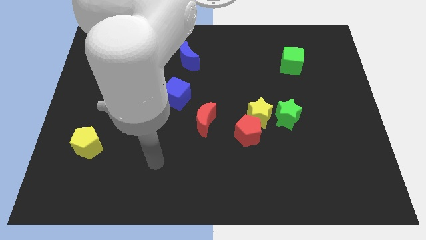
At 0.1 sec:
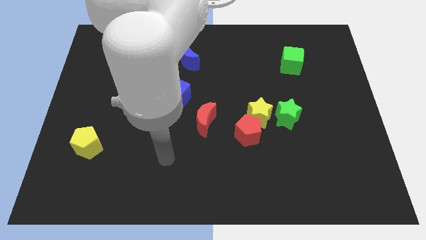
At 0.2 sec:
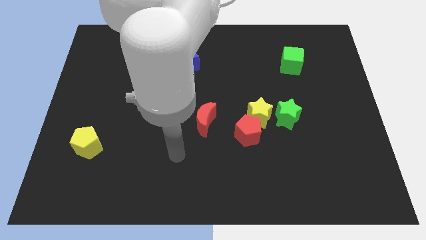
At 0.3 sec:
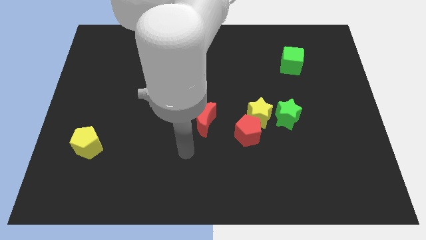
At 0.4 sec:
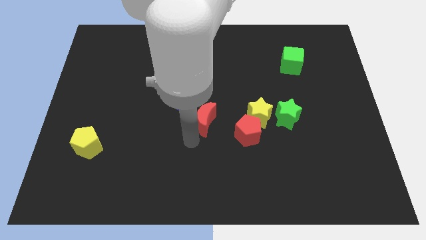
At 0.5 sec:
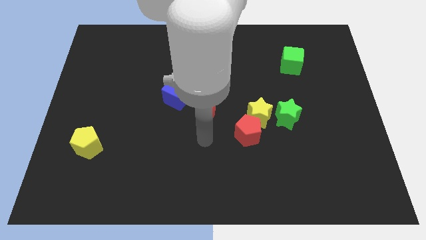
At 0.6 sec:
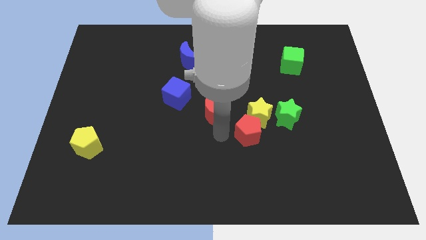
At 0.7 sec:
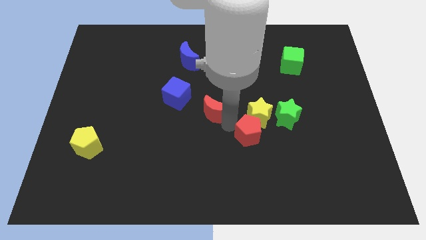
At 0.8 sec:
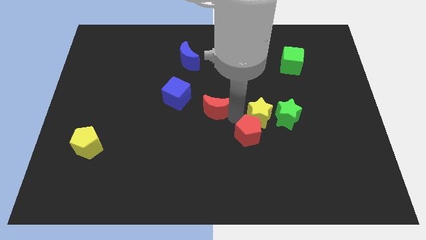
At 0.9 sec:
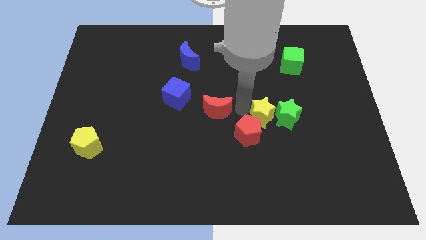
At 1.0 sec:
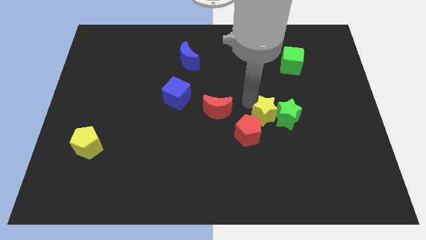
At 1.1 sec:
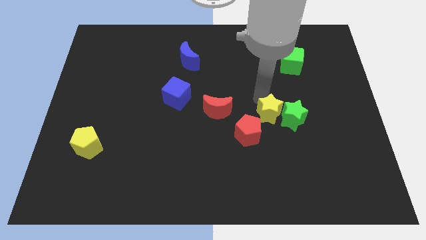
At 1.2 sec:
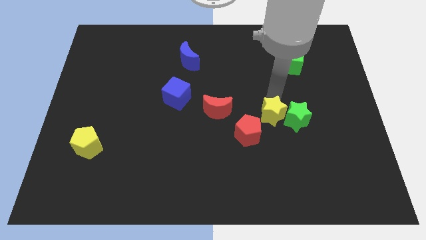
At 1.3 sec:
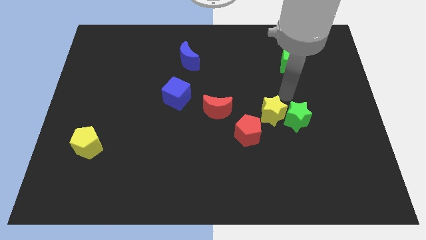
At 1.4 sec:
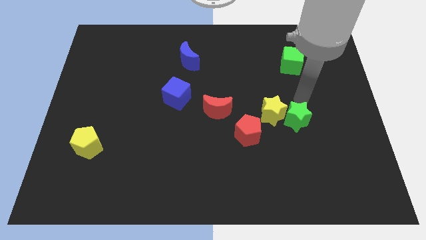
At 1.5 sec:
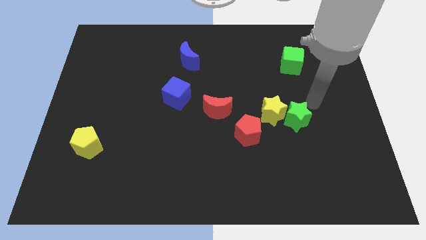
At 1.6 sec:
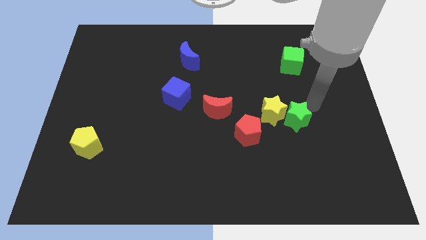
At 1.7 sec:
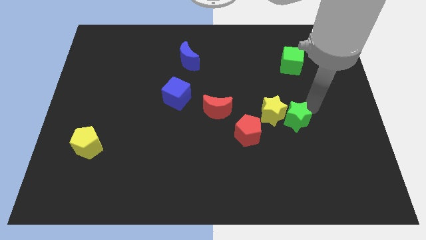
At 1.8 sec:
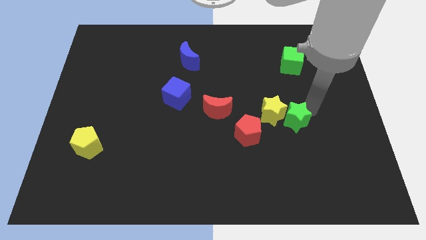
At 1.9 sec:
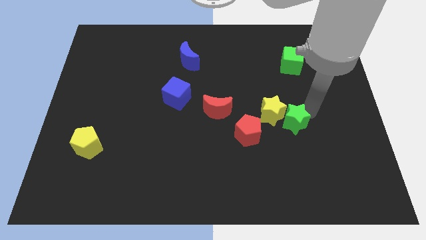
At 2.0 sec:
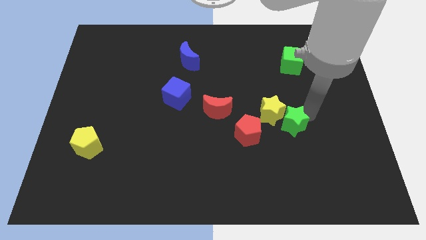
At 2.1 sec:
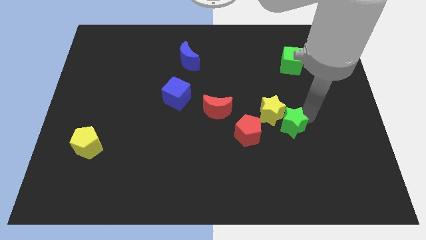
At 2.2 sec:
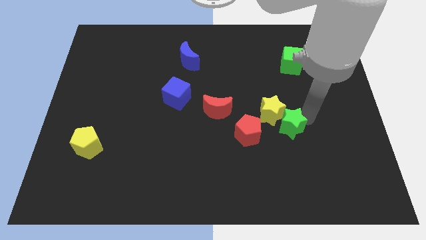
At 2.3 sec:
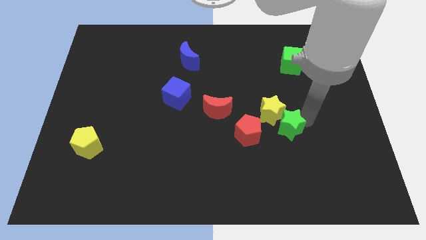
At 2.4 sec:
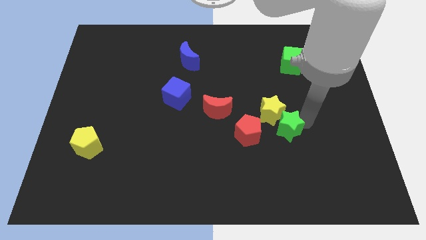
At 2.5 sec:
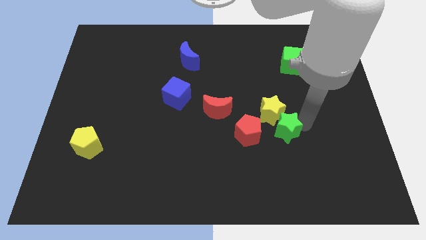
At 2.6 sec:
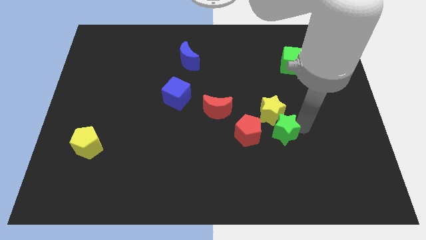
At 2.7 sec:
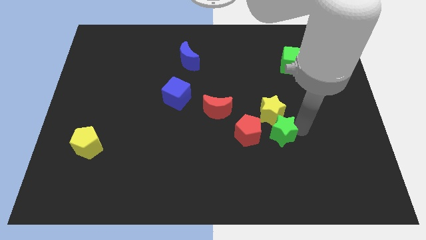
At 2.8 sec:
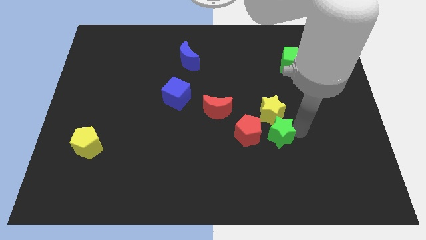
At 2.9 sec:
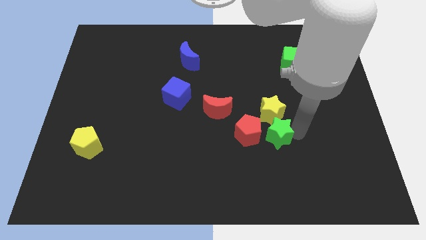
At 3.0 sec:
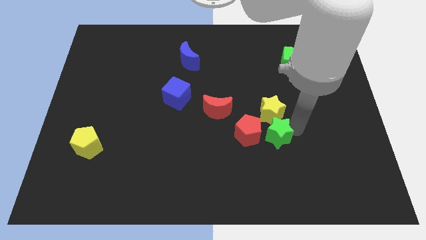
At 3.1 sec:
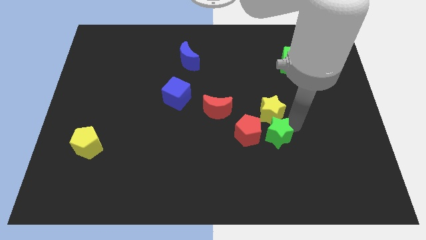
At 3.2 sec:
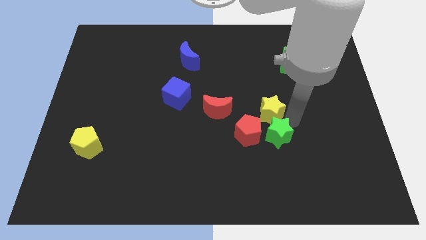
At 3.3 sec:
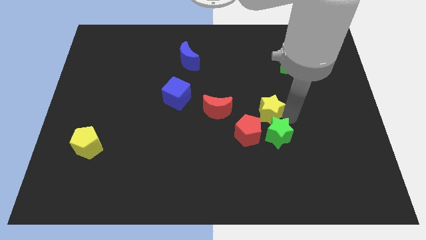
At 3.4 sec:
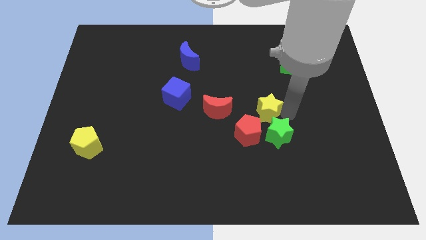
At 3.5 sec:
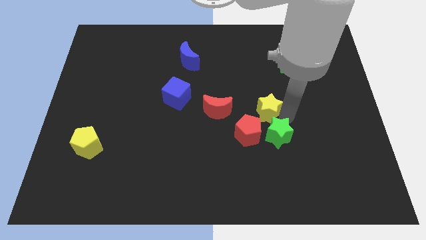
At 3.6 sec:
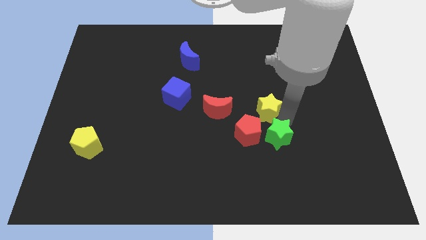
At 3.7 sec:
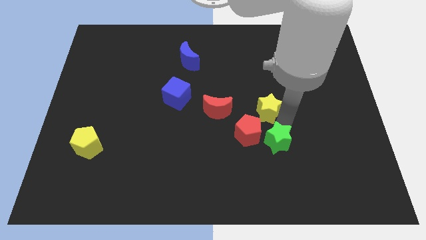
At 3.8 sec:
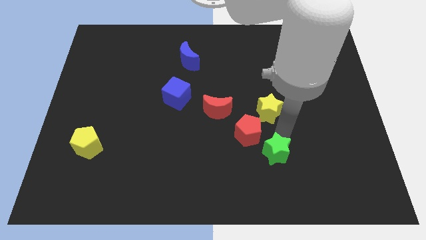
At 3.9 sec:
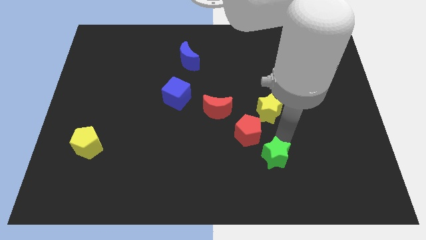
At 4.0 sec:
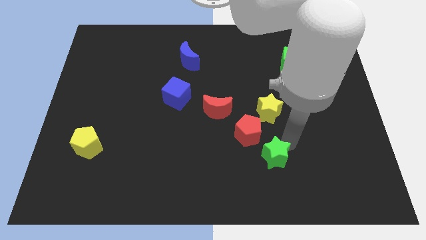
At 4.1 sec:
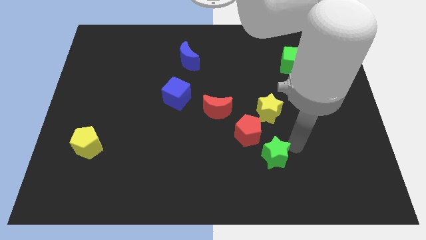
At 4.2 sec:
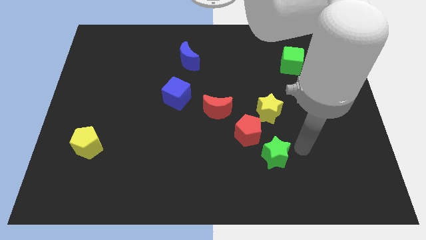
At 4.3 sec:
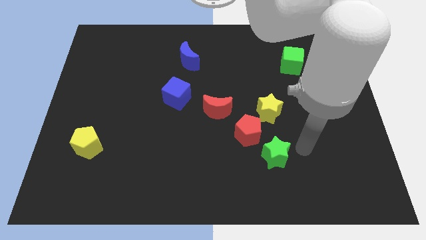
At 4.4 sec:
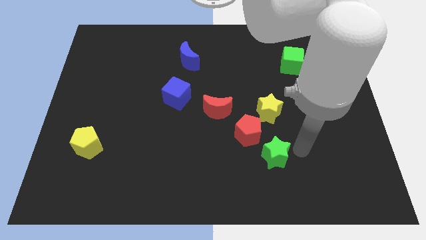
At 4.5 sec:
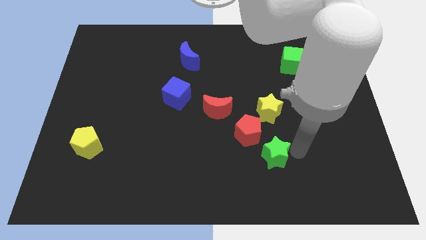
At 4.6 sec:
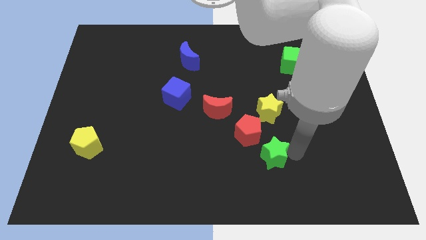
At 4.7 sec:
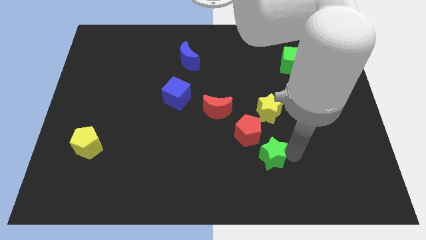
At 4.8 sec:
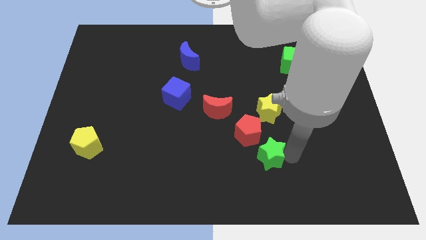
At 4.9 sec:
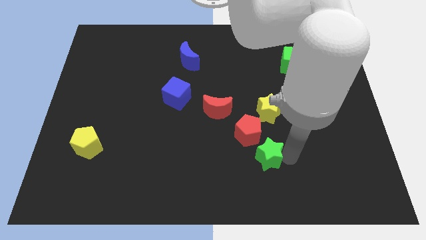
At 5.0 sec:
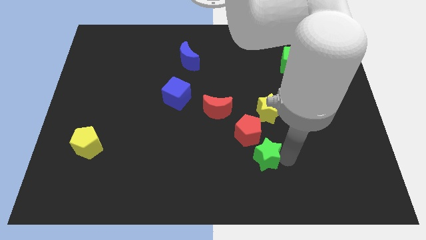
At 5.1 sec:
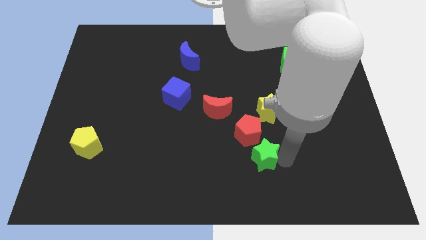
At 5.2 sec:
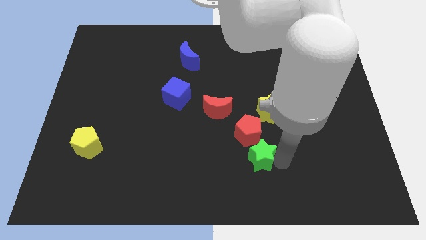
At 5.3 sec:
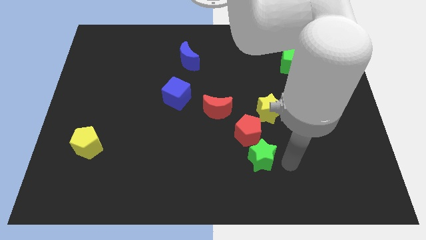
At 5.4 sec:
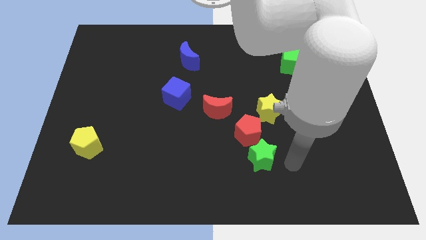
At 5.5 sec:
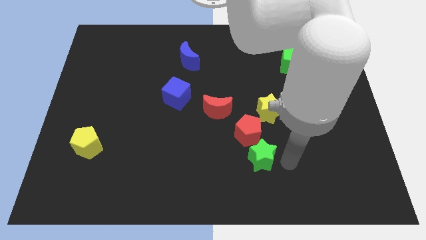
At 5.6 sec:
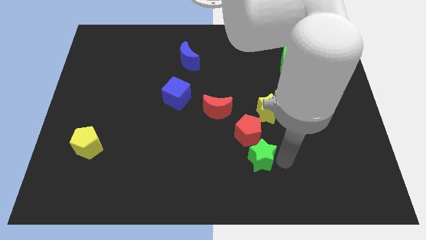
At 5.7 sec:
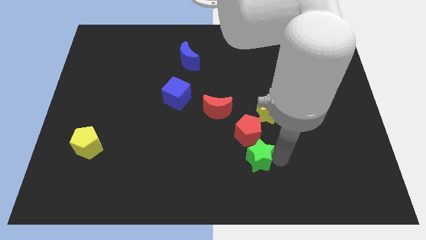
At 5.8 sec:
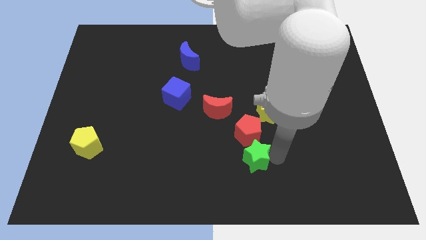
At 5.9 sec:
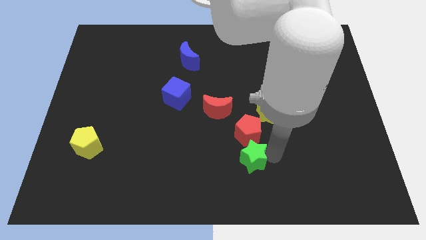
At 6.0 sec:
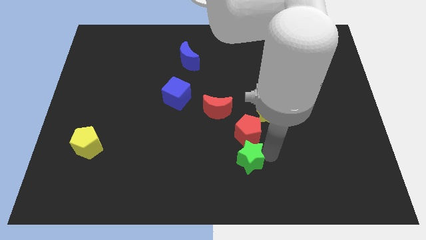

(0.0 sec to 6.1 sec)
move the green star to the bottom left side of the red pentagon

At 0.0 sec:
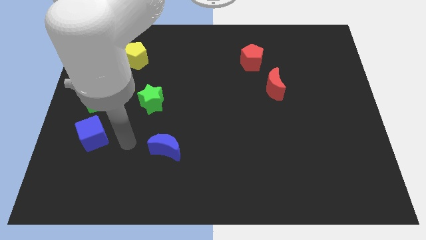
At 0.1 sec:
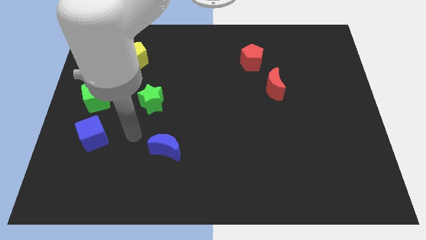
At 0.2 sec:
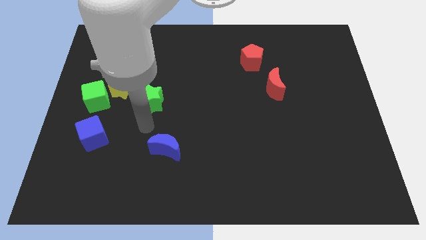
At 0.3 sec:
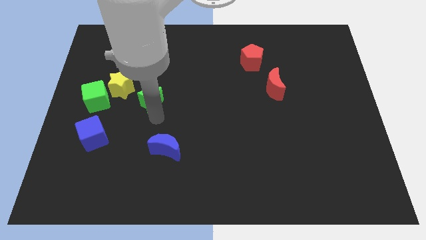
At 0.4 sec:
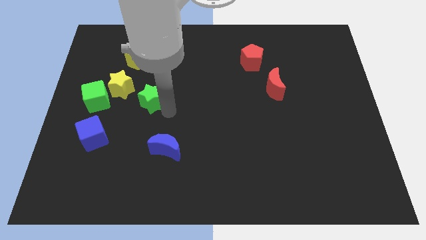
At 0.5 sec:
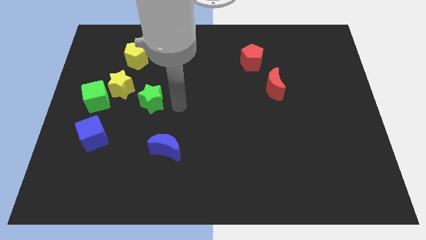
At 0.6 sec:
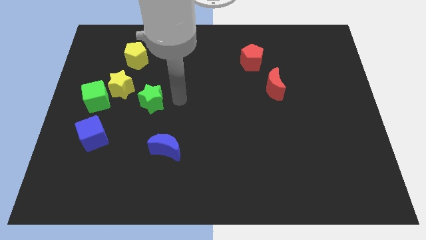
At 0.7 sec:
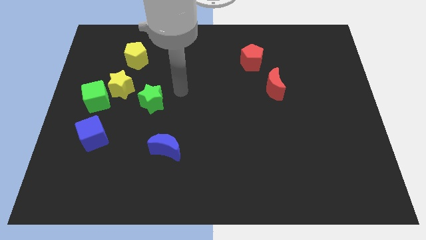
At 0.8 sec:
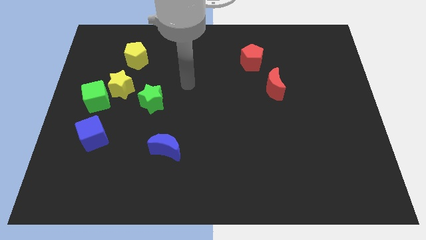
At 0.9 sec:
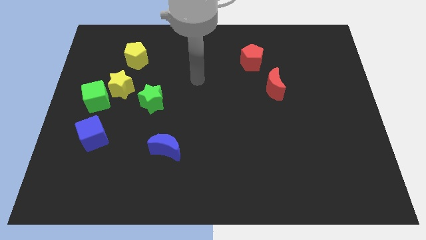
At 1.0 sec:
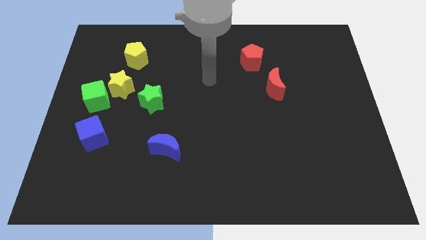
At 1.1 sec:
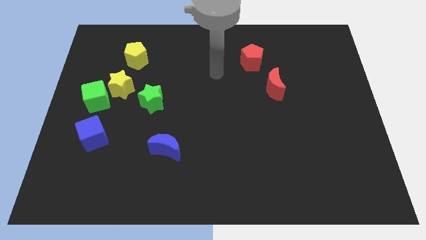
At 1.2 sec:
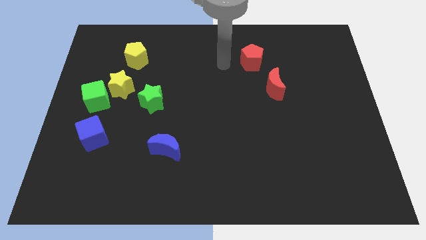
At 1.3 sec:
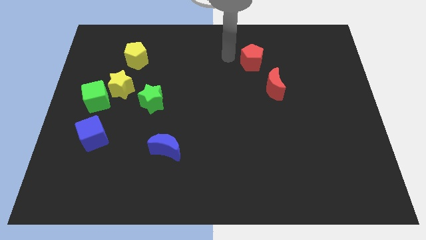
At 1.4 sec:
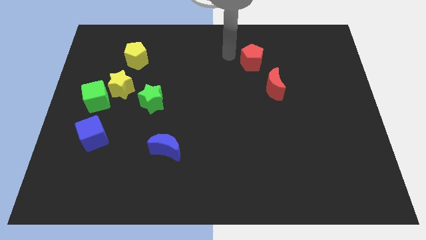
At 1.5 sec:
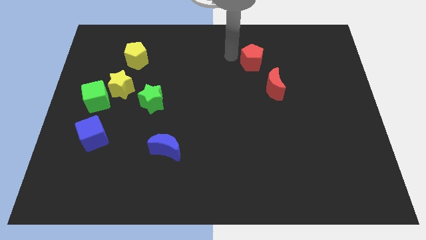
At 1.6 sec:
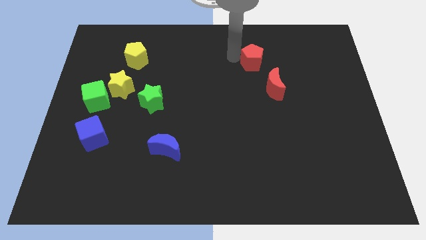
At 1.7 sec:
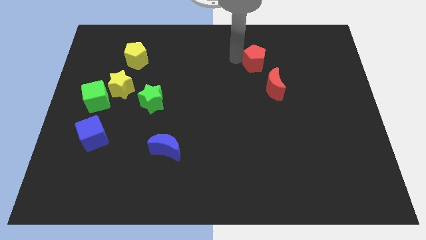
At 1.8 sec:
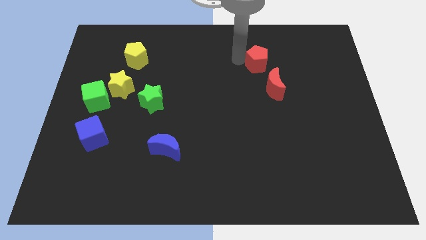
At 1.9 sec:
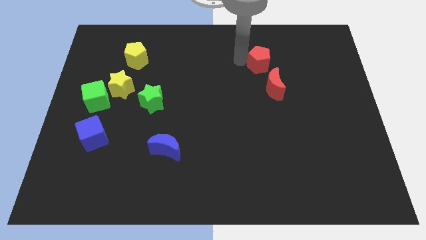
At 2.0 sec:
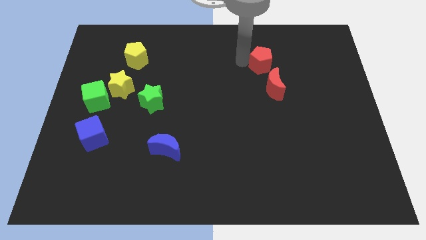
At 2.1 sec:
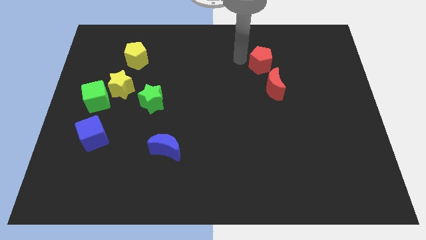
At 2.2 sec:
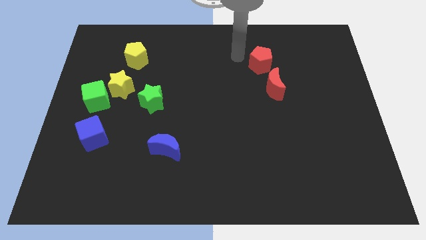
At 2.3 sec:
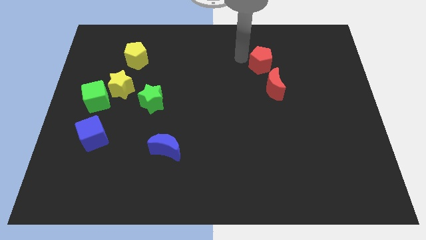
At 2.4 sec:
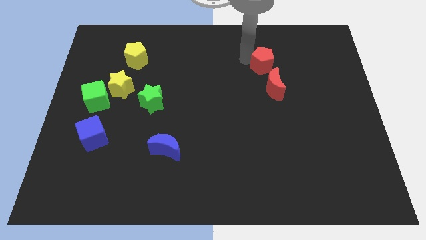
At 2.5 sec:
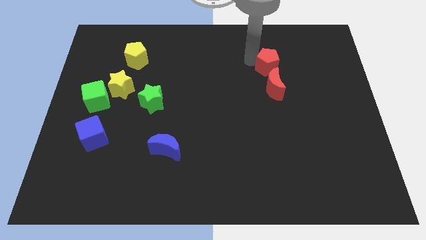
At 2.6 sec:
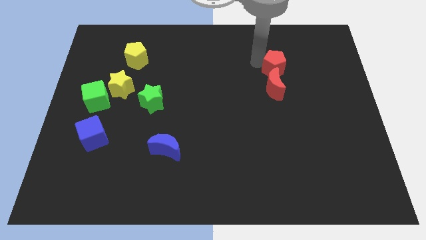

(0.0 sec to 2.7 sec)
slide the red pentagon diagonally up and to the right of the red moon
